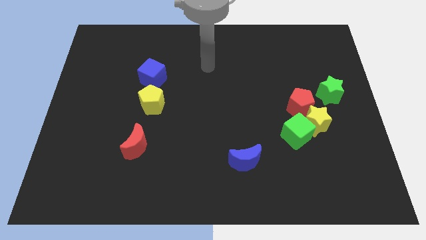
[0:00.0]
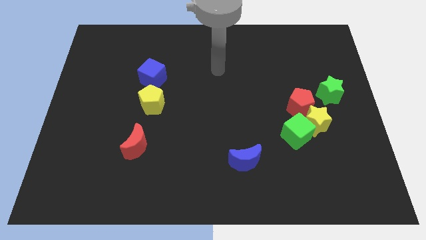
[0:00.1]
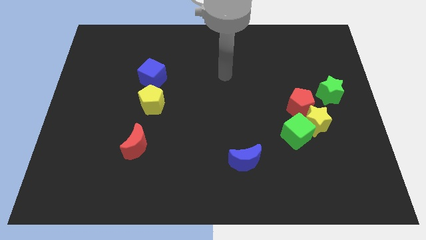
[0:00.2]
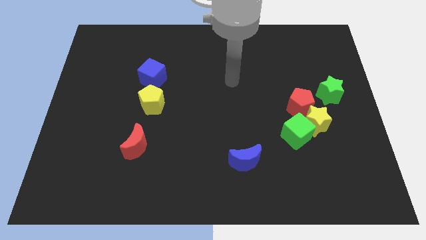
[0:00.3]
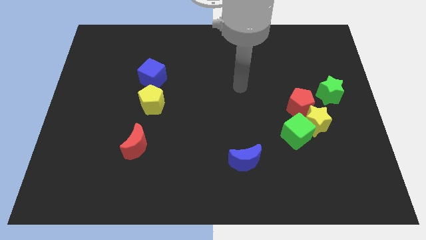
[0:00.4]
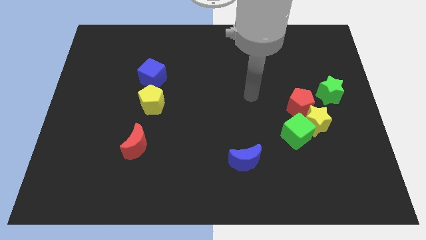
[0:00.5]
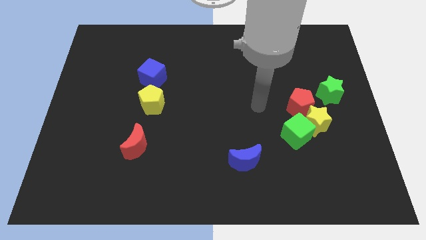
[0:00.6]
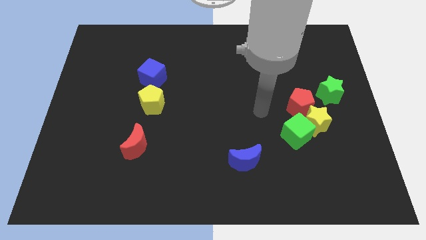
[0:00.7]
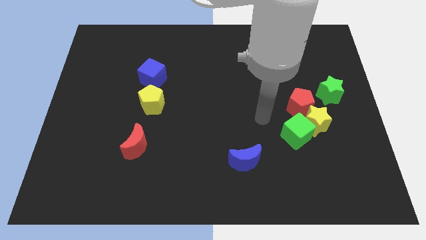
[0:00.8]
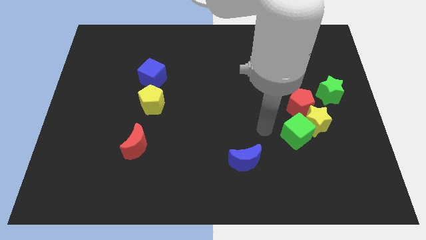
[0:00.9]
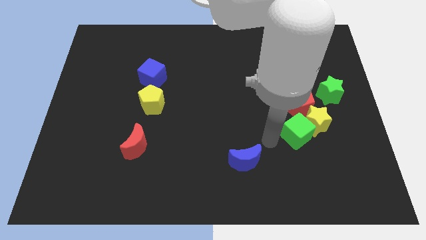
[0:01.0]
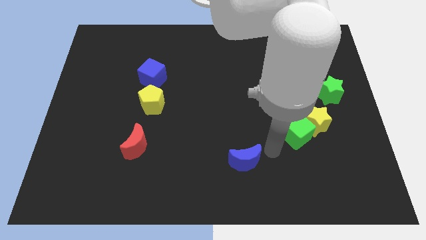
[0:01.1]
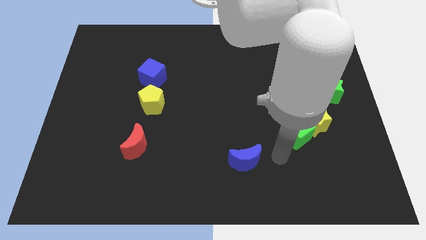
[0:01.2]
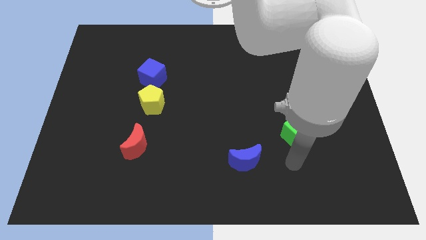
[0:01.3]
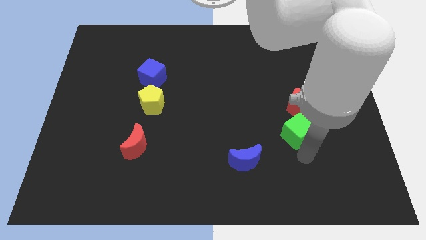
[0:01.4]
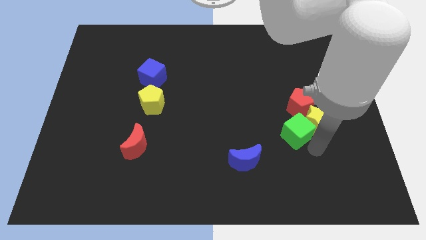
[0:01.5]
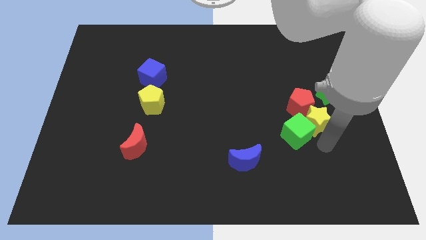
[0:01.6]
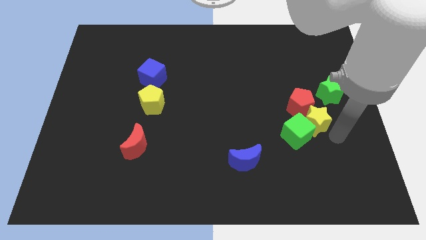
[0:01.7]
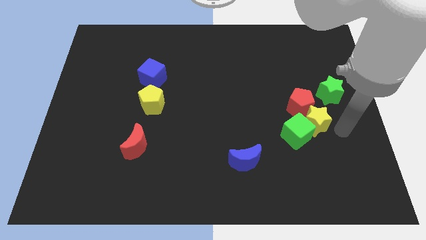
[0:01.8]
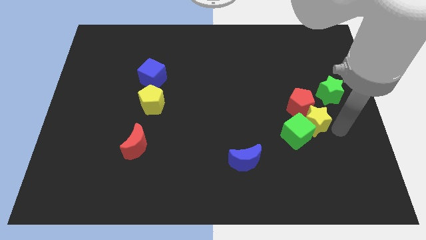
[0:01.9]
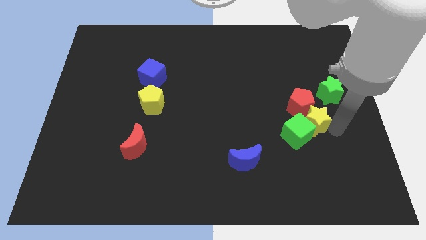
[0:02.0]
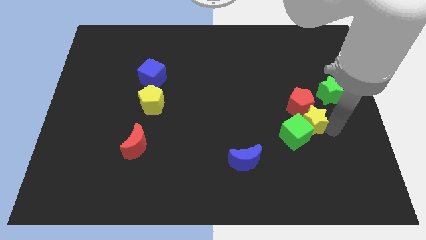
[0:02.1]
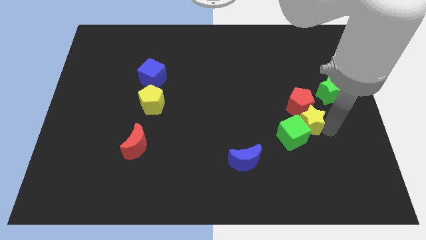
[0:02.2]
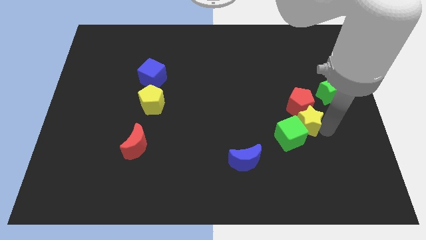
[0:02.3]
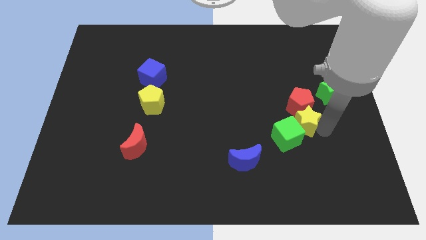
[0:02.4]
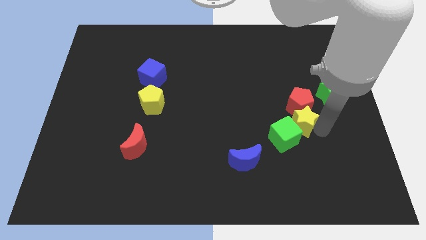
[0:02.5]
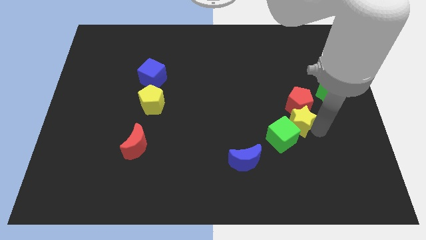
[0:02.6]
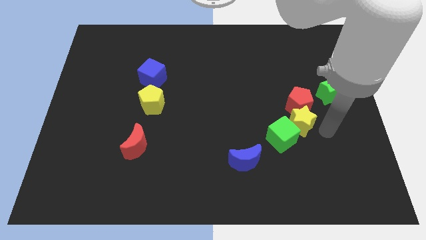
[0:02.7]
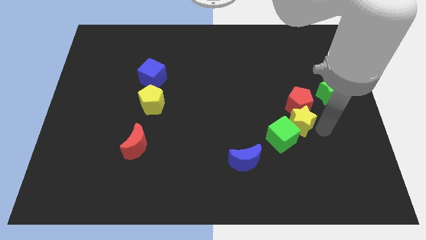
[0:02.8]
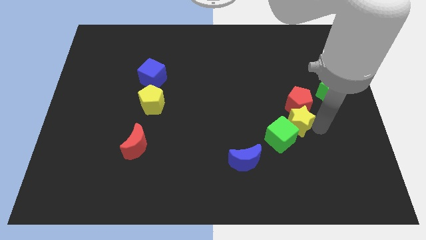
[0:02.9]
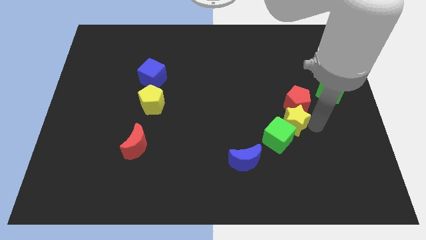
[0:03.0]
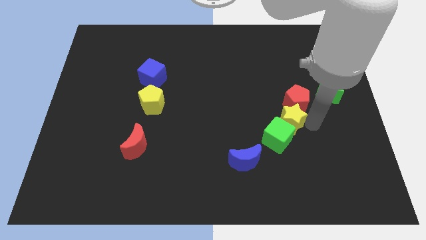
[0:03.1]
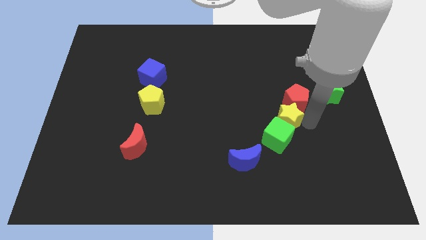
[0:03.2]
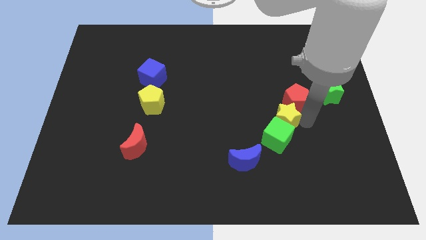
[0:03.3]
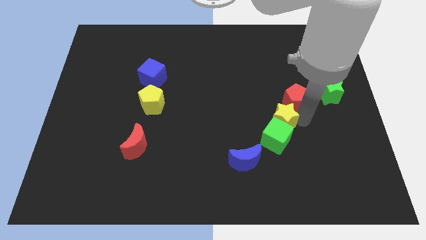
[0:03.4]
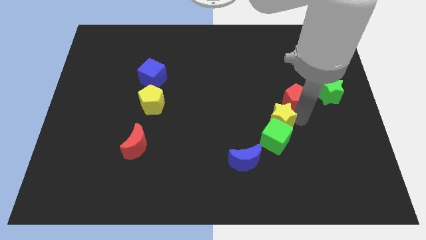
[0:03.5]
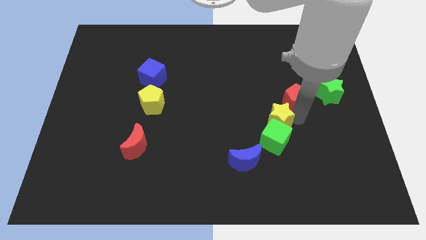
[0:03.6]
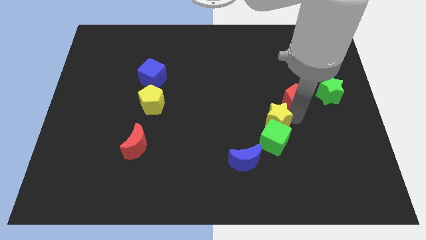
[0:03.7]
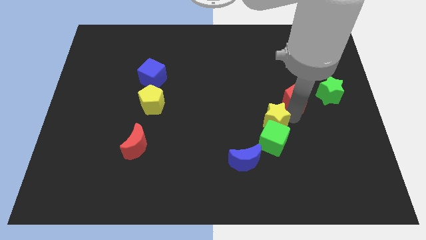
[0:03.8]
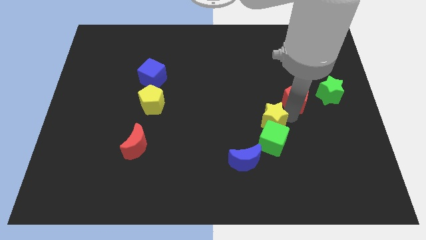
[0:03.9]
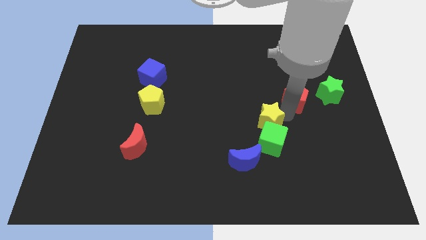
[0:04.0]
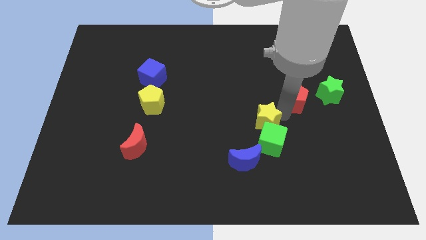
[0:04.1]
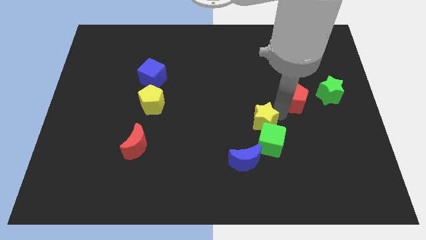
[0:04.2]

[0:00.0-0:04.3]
put the yellow star to the center

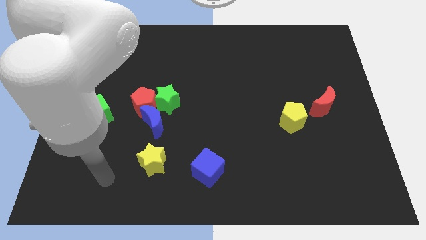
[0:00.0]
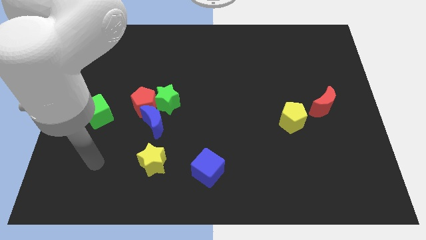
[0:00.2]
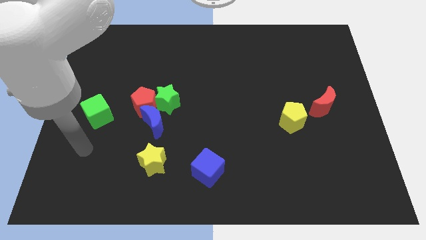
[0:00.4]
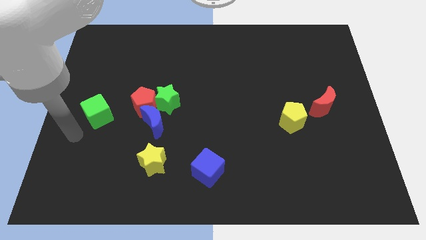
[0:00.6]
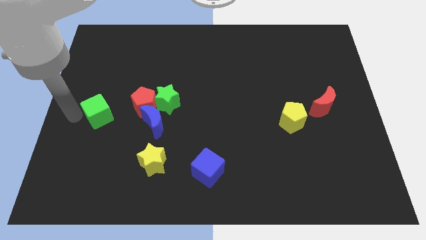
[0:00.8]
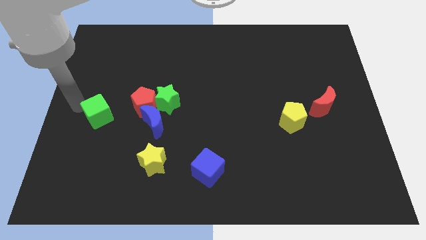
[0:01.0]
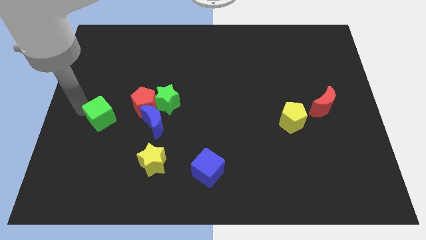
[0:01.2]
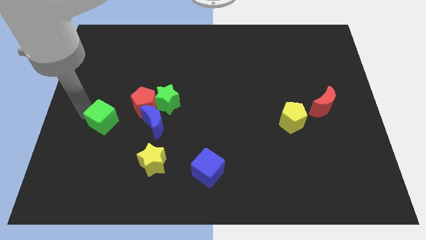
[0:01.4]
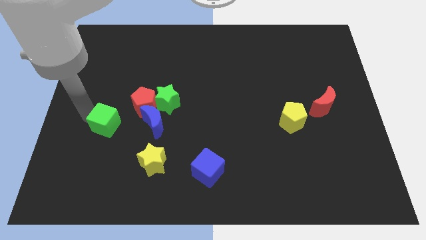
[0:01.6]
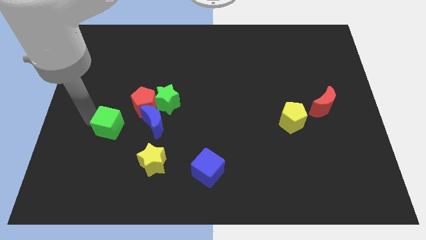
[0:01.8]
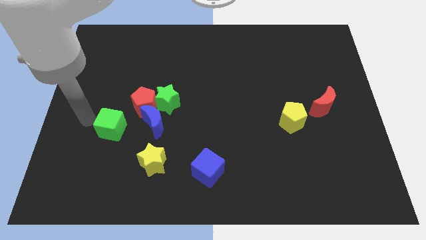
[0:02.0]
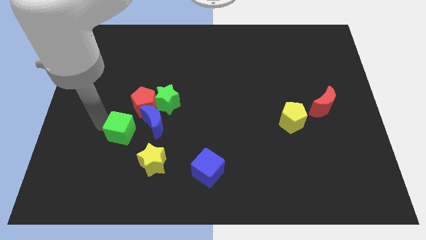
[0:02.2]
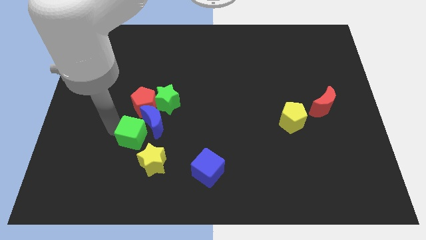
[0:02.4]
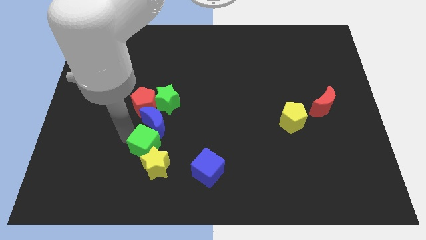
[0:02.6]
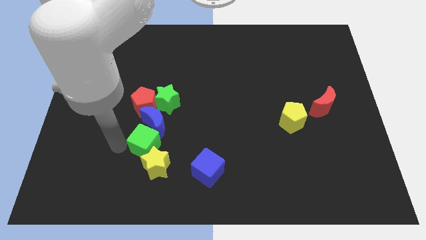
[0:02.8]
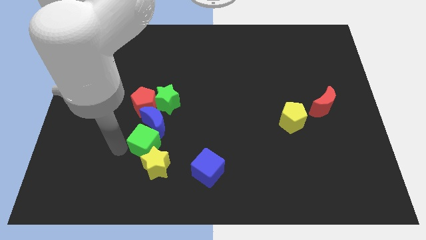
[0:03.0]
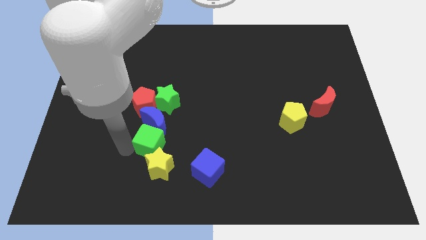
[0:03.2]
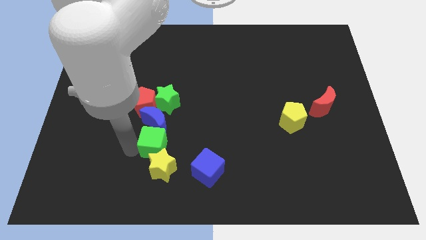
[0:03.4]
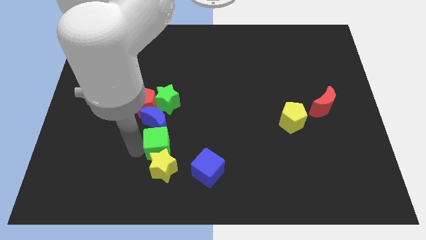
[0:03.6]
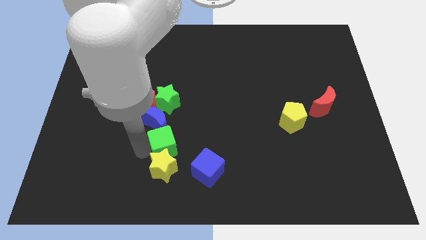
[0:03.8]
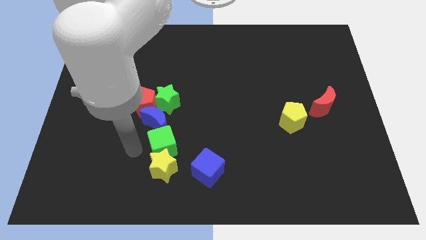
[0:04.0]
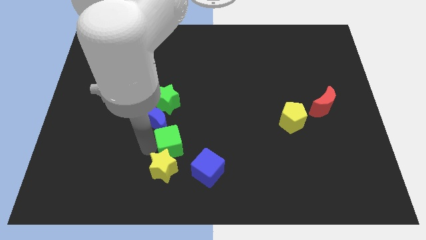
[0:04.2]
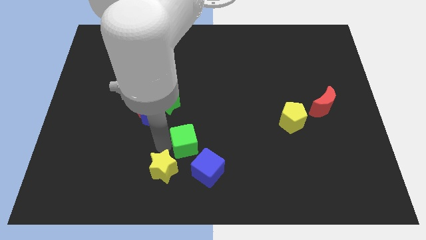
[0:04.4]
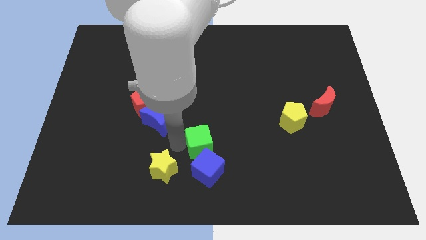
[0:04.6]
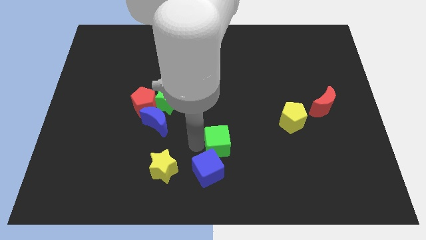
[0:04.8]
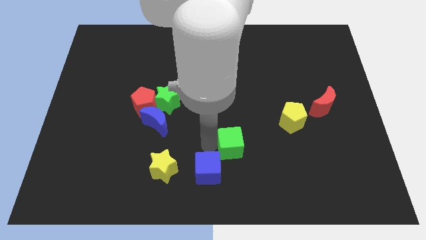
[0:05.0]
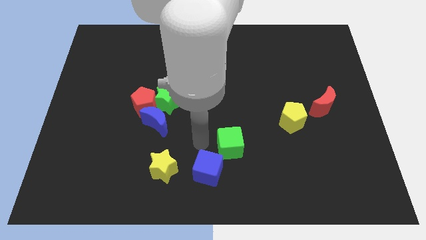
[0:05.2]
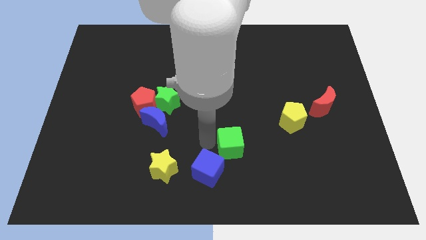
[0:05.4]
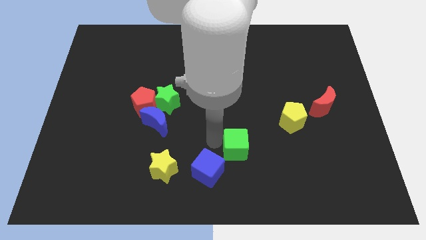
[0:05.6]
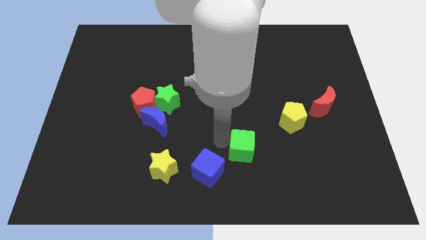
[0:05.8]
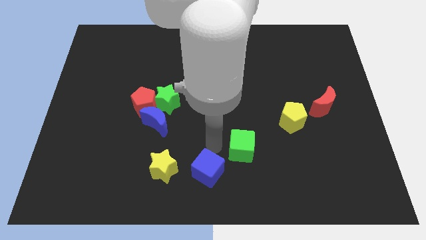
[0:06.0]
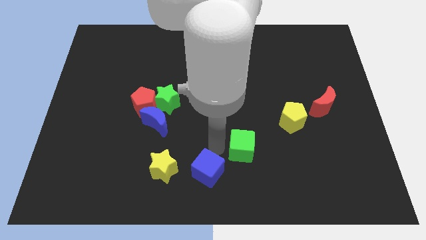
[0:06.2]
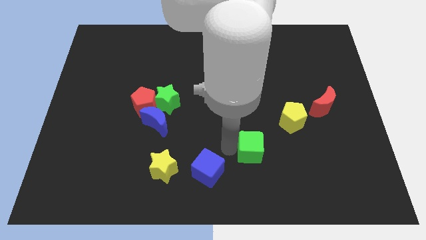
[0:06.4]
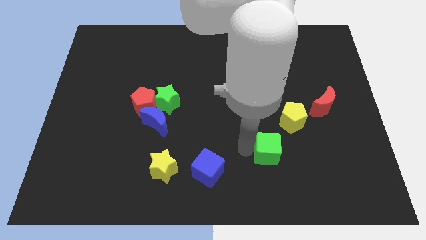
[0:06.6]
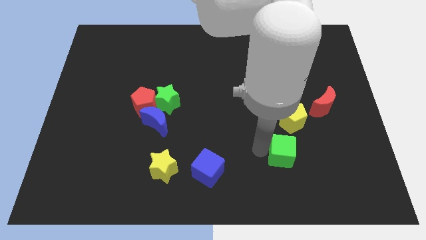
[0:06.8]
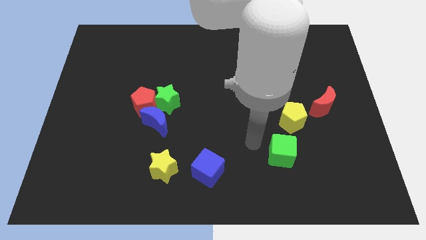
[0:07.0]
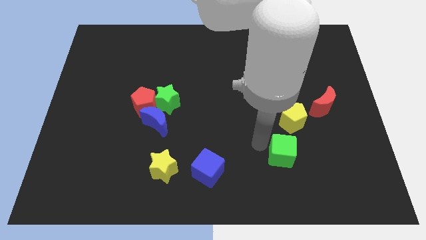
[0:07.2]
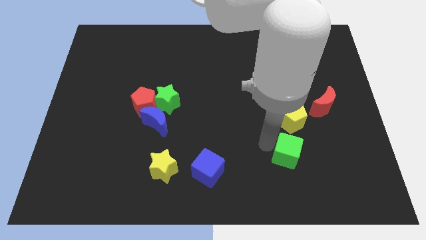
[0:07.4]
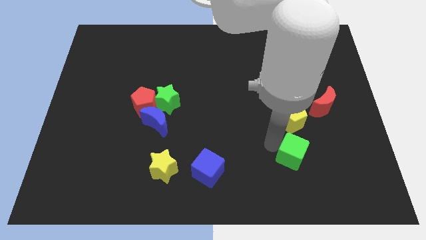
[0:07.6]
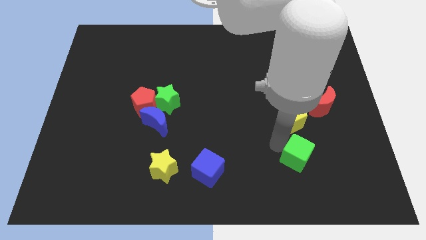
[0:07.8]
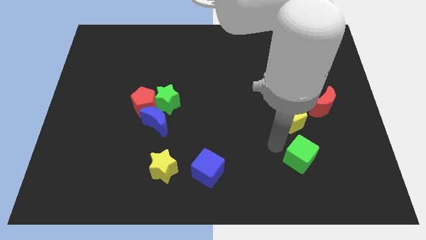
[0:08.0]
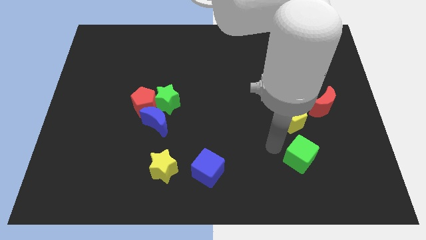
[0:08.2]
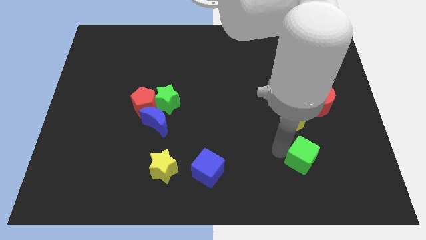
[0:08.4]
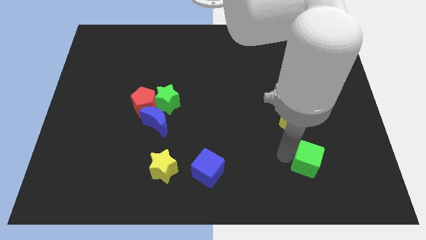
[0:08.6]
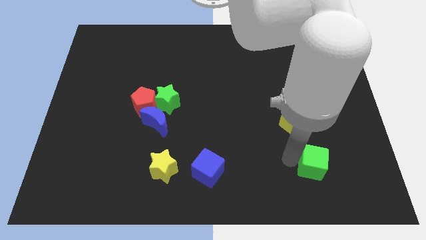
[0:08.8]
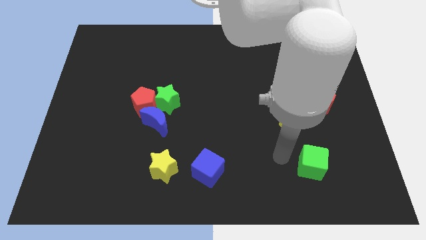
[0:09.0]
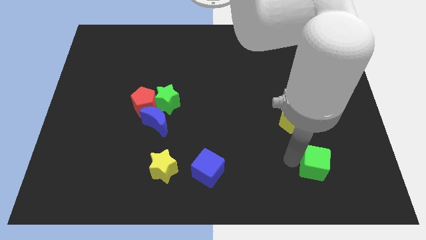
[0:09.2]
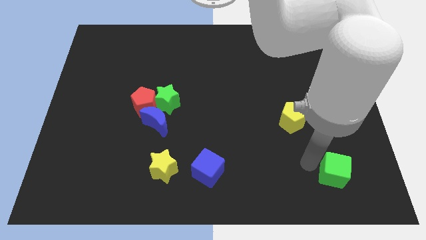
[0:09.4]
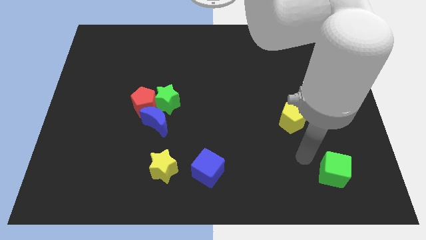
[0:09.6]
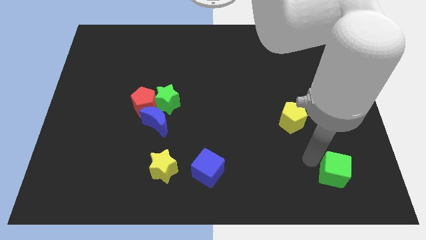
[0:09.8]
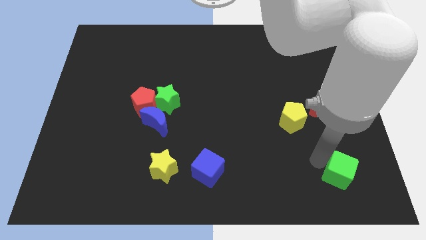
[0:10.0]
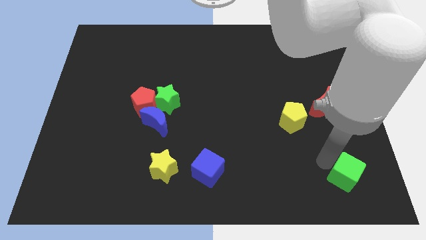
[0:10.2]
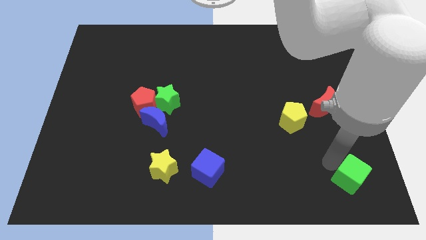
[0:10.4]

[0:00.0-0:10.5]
push the green cube to the bottom right corner
